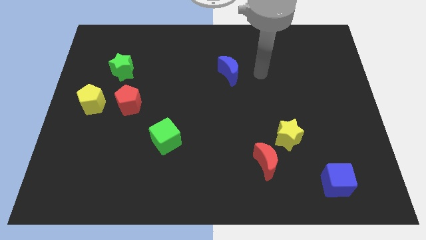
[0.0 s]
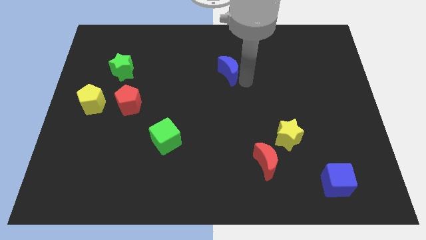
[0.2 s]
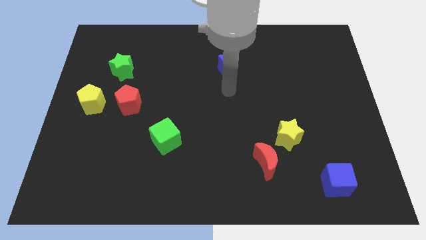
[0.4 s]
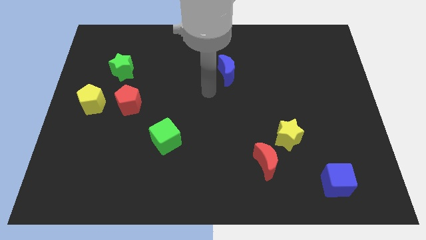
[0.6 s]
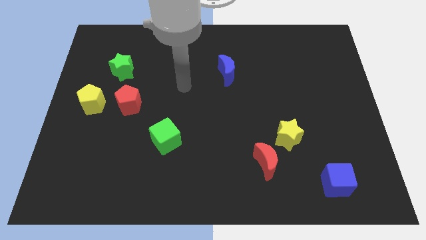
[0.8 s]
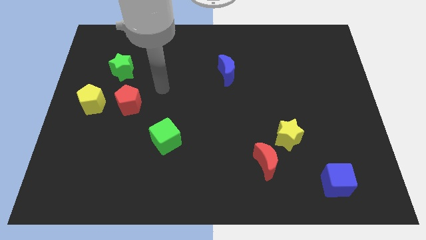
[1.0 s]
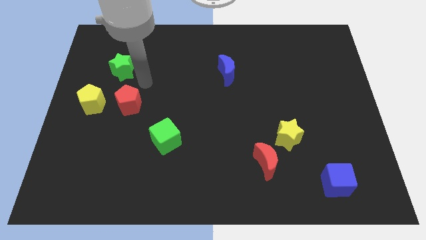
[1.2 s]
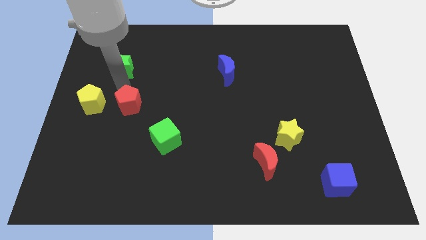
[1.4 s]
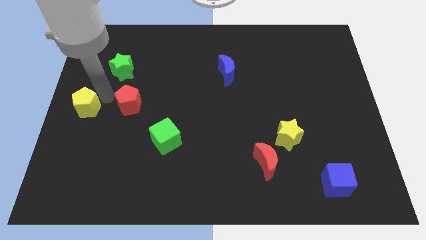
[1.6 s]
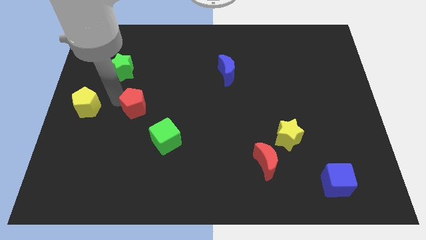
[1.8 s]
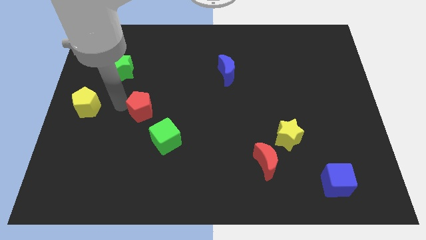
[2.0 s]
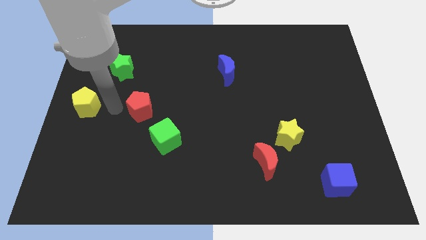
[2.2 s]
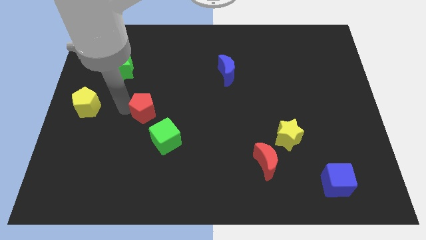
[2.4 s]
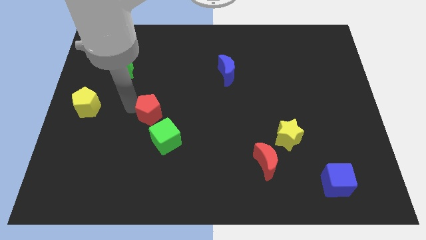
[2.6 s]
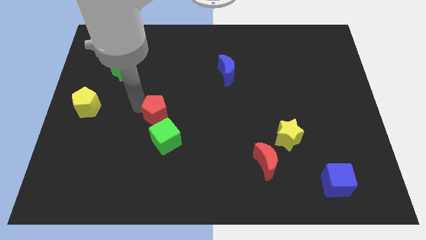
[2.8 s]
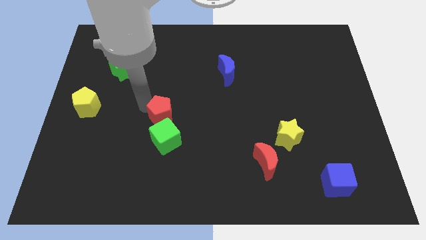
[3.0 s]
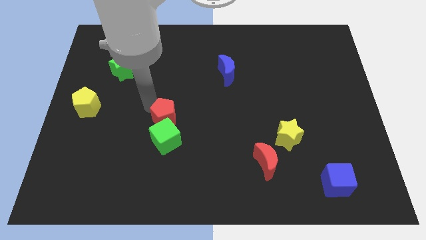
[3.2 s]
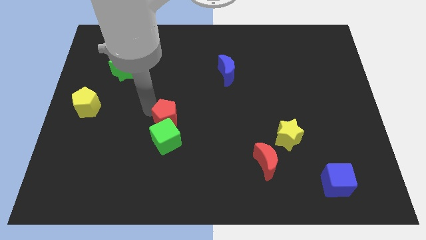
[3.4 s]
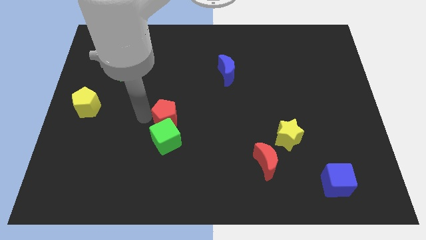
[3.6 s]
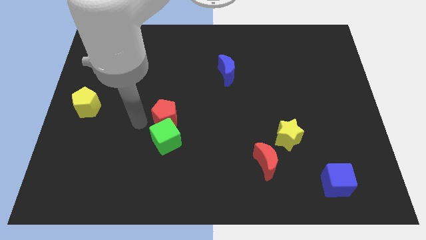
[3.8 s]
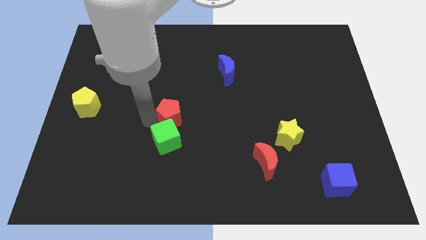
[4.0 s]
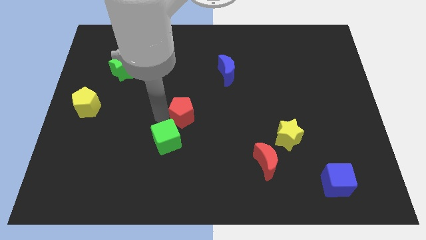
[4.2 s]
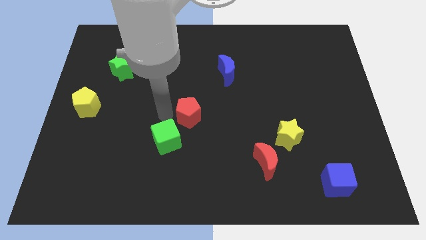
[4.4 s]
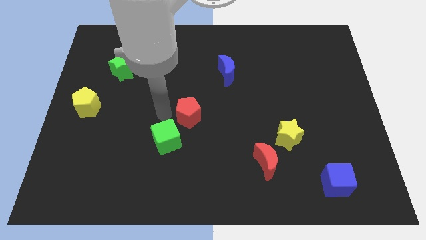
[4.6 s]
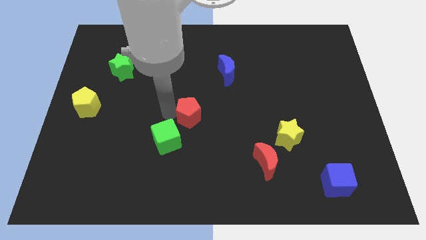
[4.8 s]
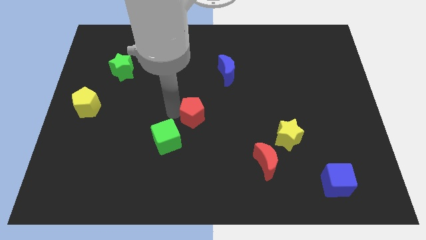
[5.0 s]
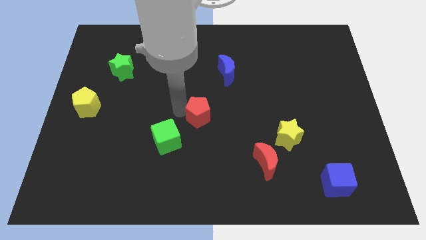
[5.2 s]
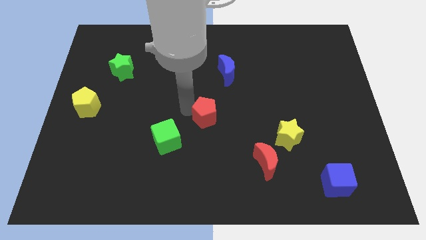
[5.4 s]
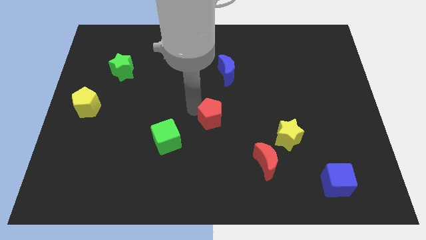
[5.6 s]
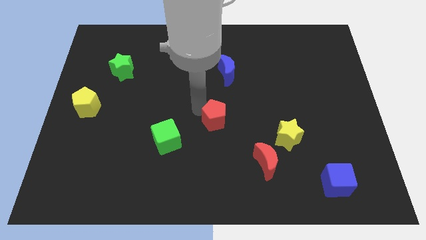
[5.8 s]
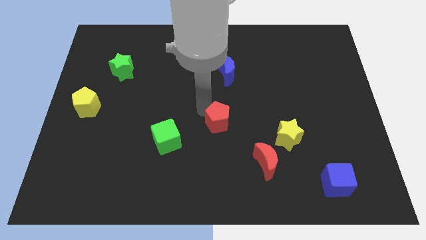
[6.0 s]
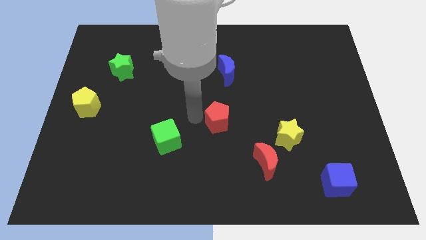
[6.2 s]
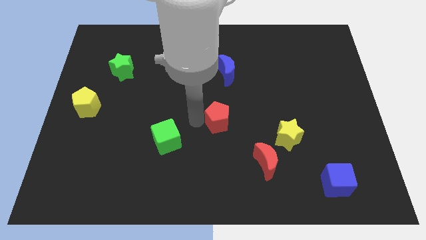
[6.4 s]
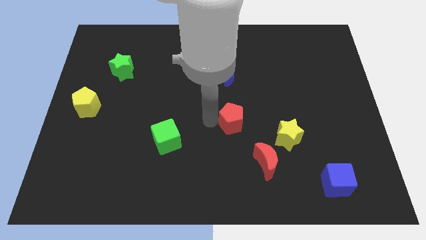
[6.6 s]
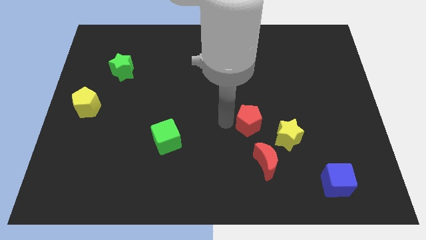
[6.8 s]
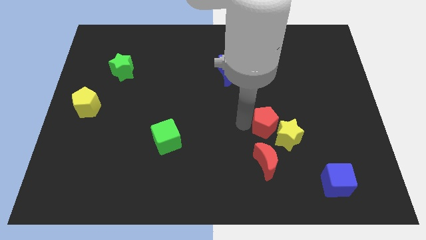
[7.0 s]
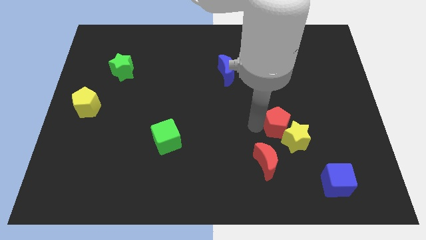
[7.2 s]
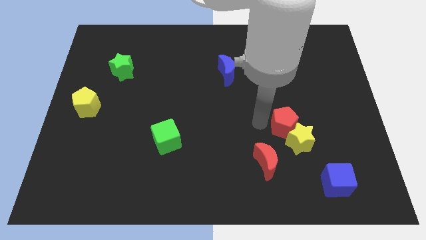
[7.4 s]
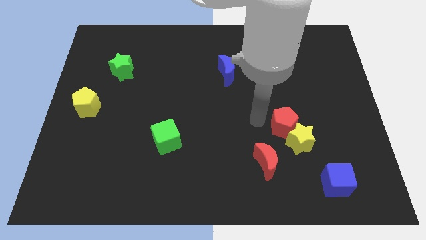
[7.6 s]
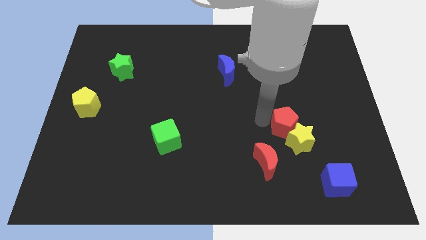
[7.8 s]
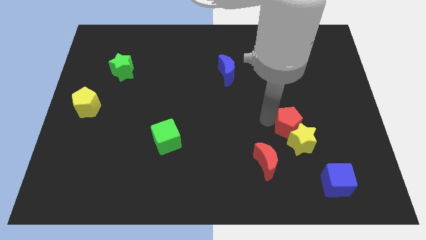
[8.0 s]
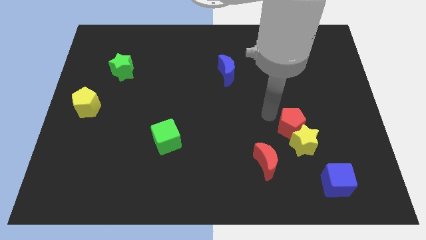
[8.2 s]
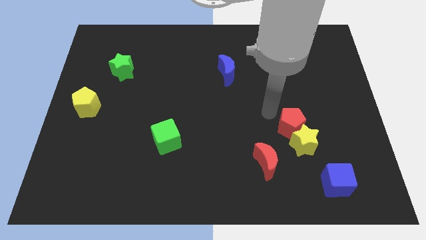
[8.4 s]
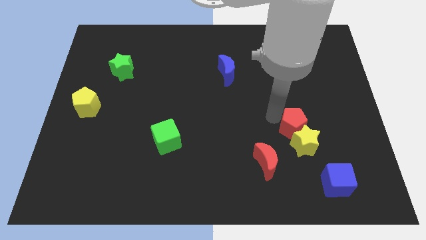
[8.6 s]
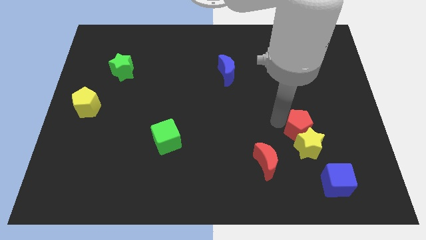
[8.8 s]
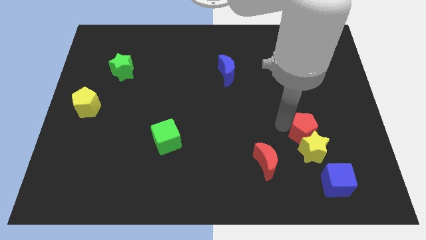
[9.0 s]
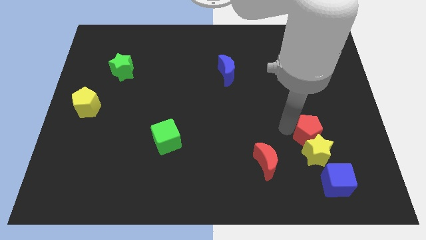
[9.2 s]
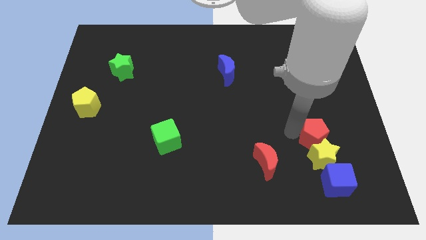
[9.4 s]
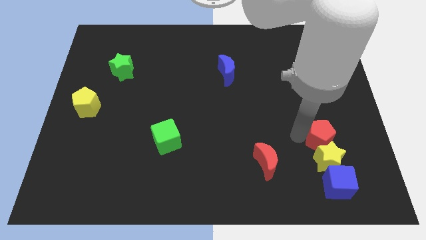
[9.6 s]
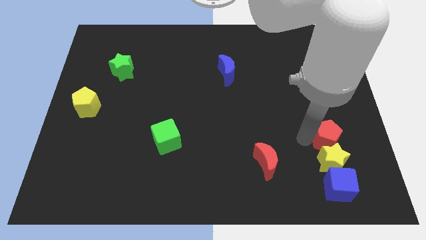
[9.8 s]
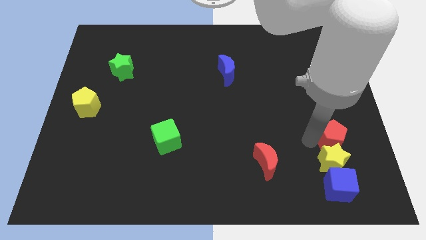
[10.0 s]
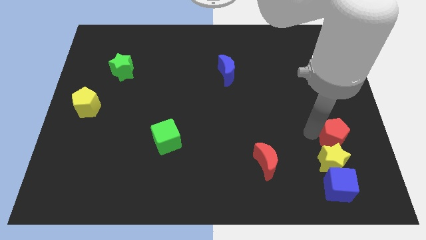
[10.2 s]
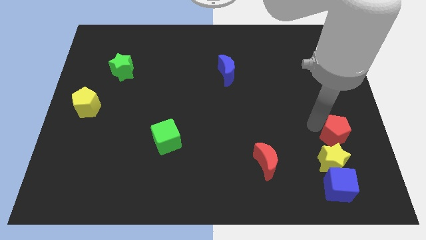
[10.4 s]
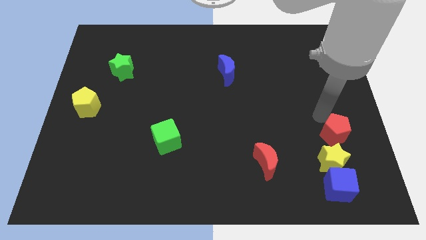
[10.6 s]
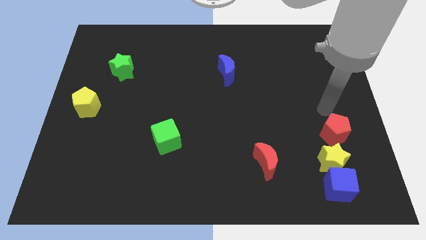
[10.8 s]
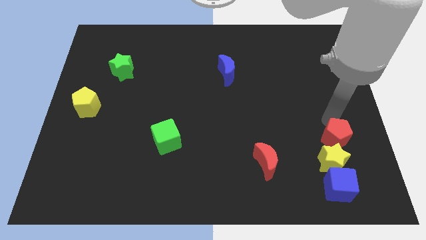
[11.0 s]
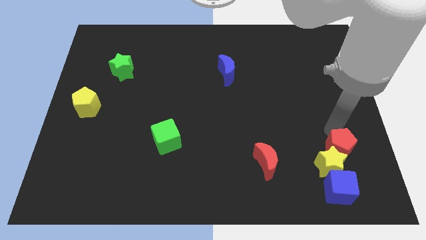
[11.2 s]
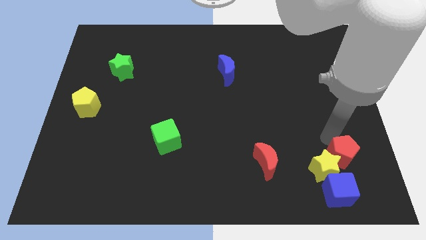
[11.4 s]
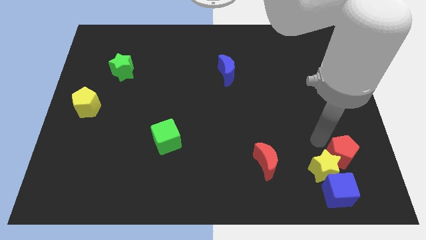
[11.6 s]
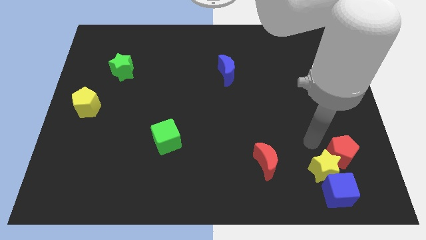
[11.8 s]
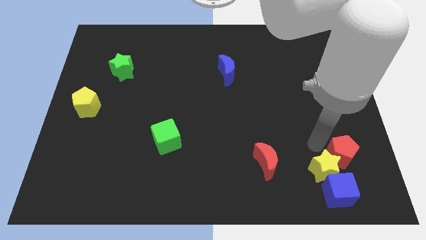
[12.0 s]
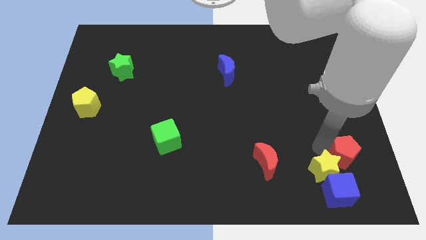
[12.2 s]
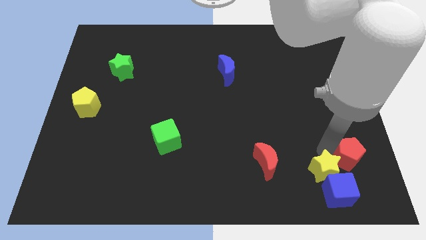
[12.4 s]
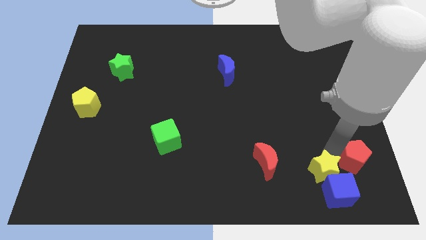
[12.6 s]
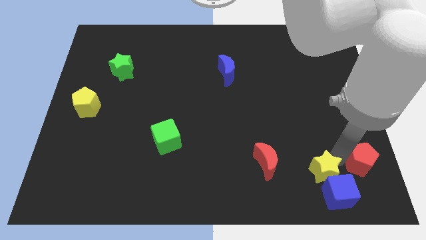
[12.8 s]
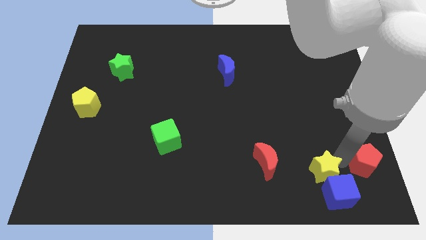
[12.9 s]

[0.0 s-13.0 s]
put the red pentagon to the lower right corner
